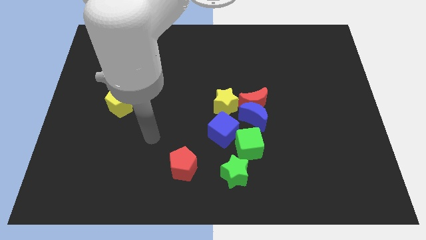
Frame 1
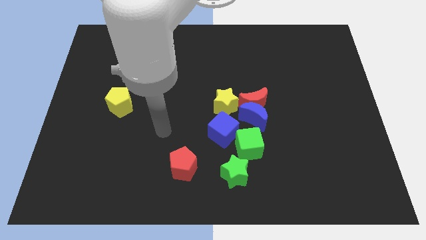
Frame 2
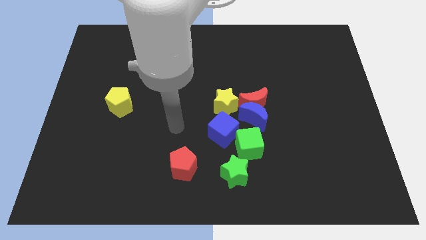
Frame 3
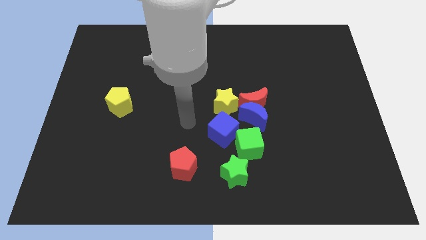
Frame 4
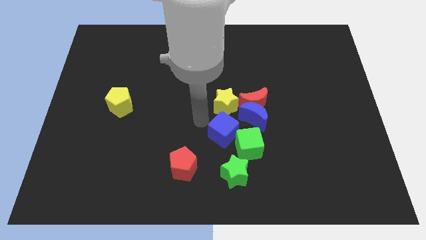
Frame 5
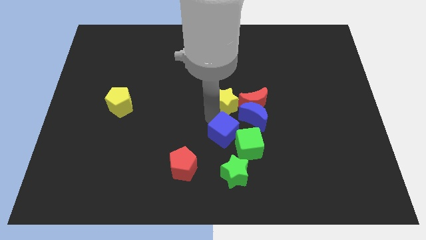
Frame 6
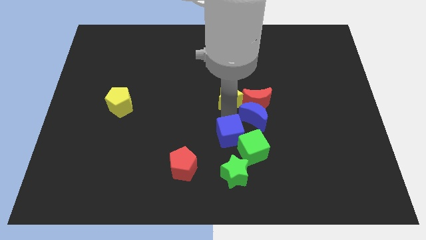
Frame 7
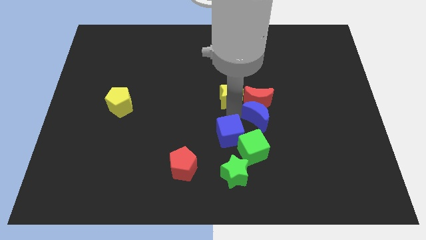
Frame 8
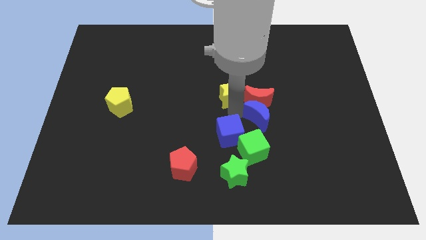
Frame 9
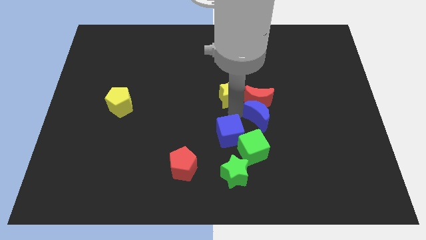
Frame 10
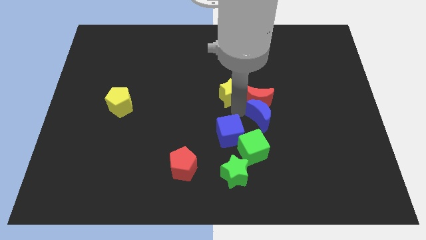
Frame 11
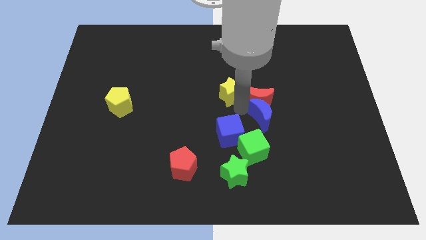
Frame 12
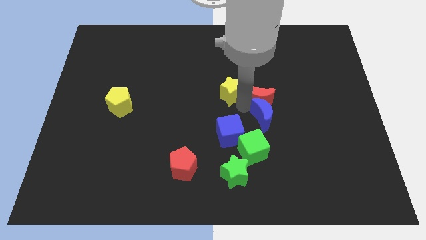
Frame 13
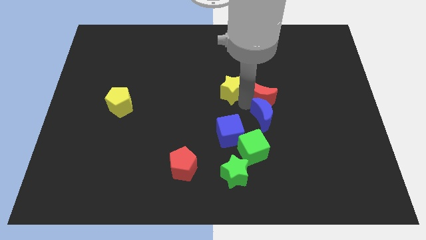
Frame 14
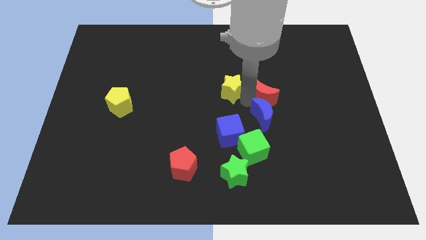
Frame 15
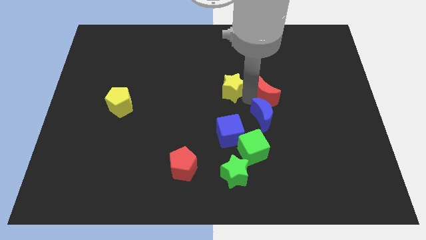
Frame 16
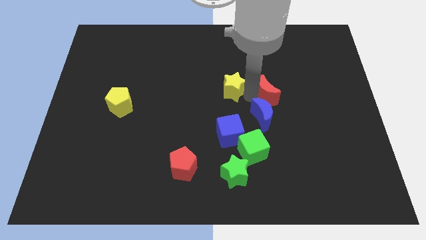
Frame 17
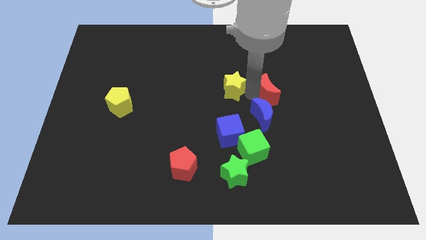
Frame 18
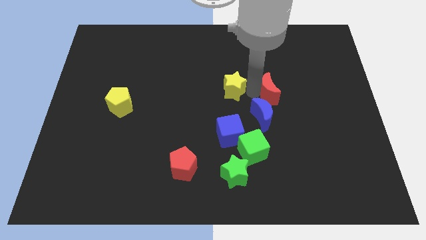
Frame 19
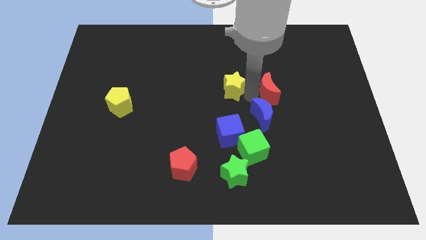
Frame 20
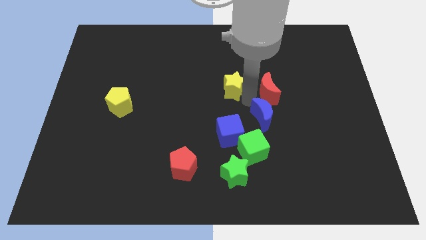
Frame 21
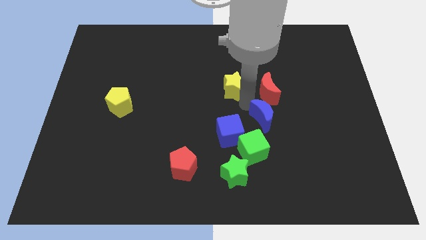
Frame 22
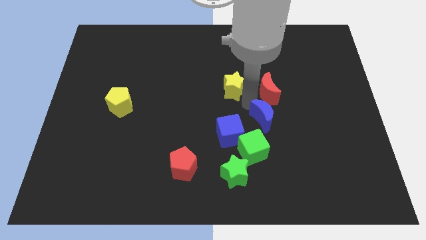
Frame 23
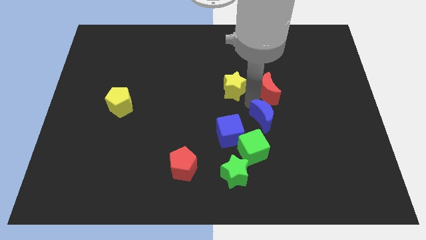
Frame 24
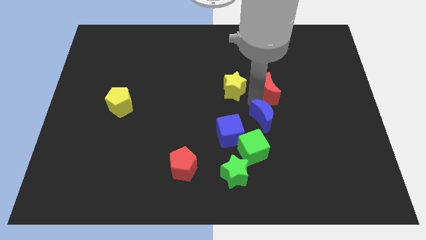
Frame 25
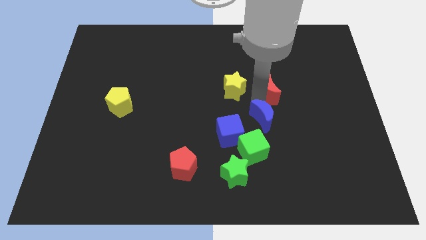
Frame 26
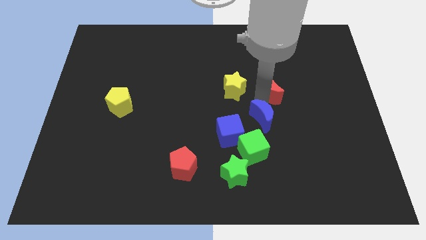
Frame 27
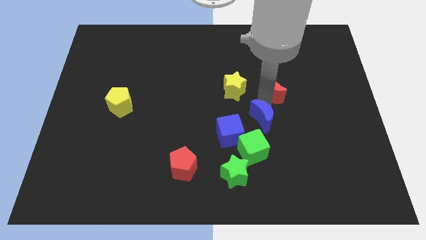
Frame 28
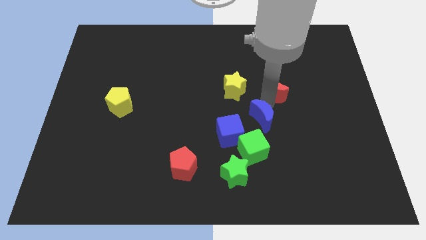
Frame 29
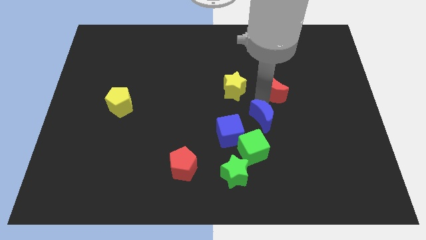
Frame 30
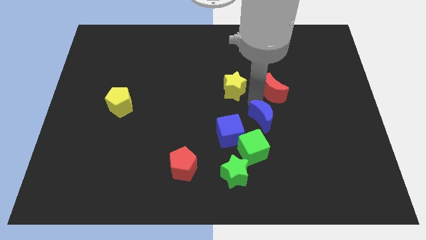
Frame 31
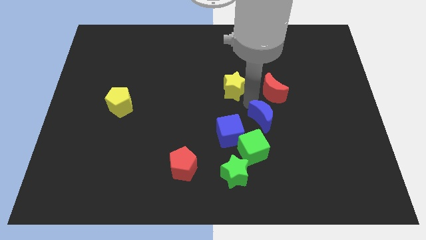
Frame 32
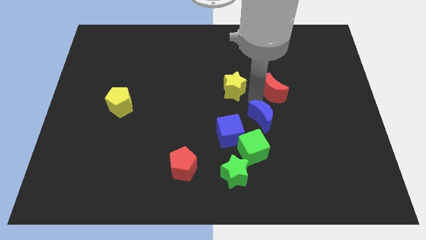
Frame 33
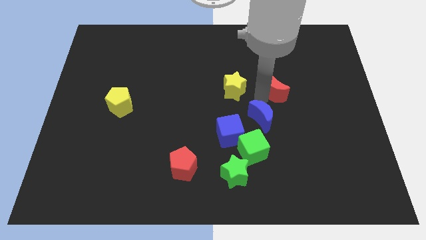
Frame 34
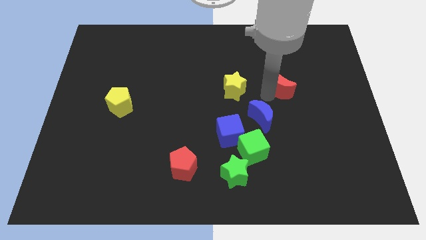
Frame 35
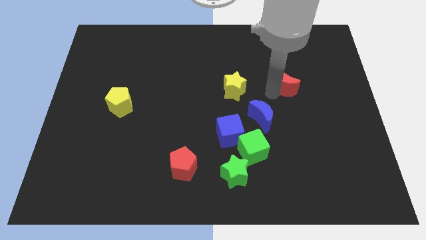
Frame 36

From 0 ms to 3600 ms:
separate the red moon from the blue moon and yellow star

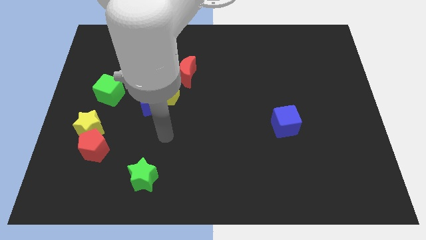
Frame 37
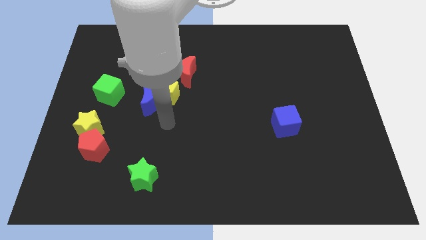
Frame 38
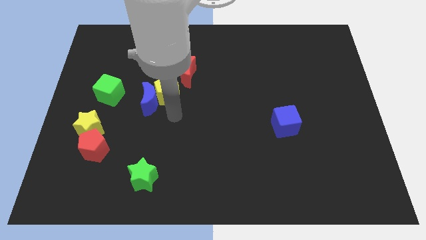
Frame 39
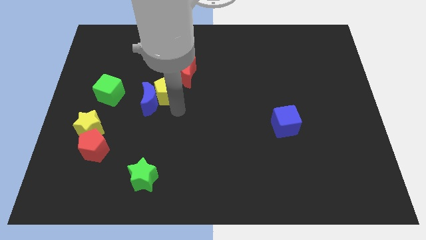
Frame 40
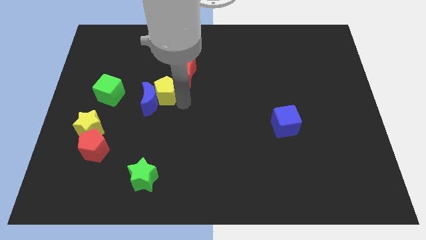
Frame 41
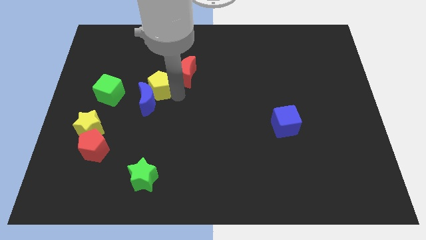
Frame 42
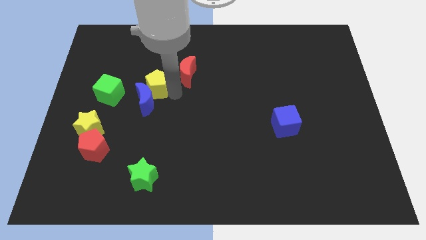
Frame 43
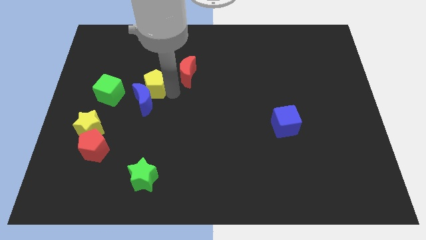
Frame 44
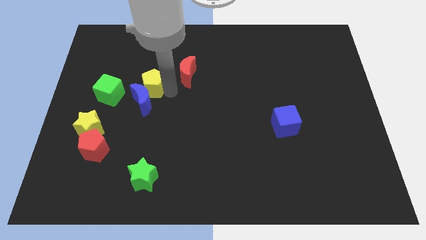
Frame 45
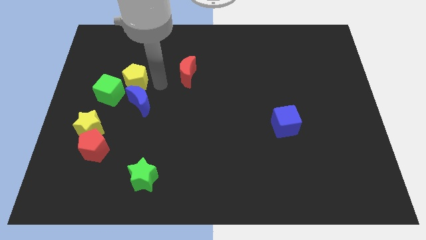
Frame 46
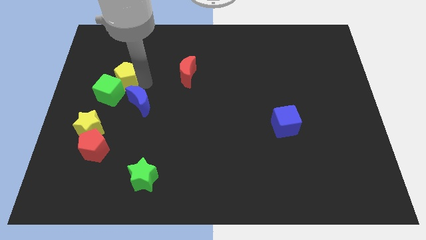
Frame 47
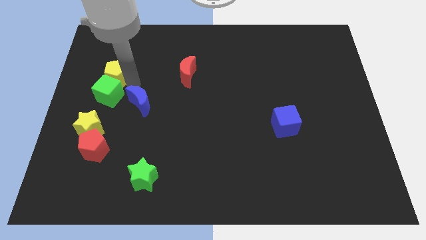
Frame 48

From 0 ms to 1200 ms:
move the blue moon away from the yellow pentagon

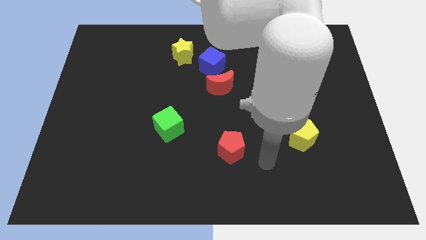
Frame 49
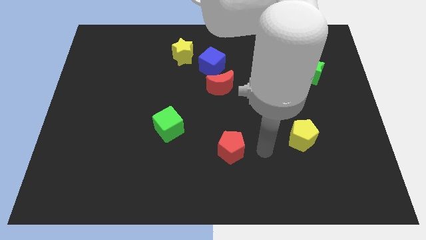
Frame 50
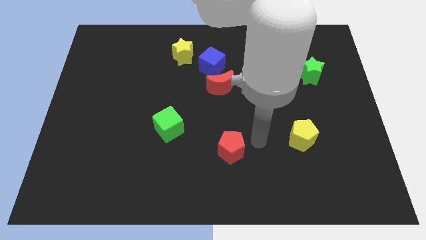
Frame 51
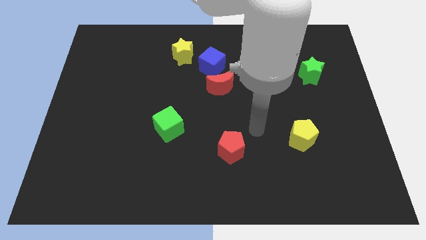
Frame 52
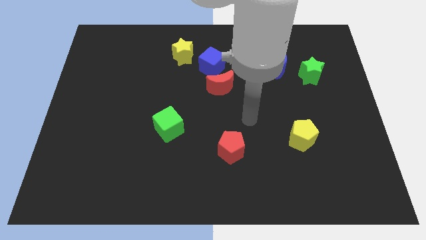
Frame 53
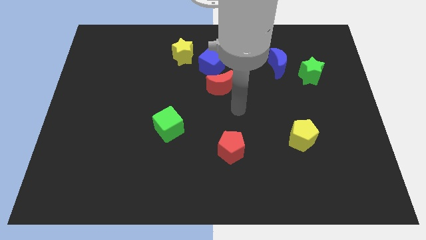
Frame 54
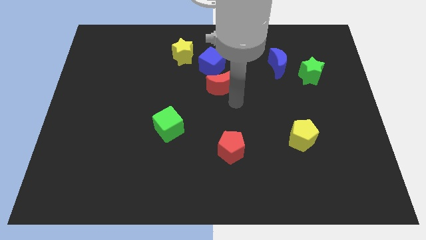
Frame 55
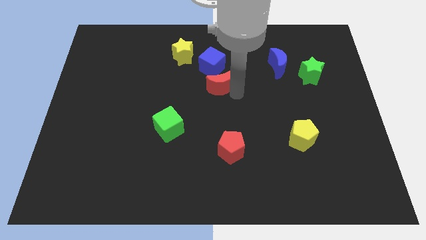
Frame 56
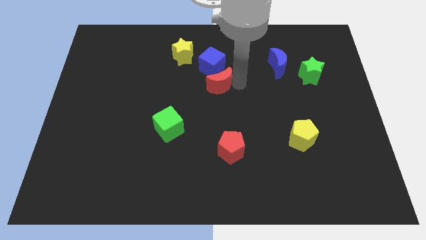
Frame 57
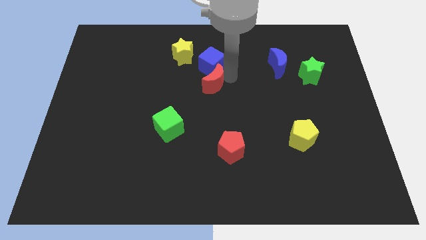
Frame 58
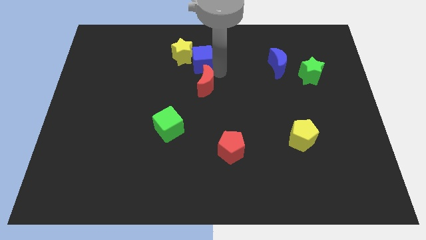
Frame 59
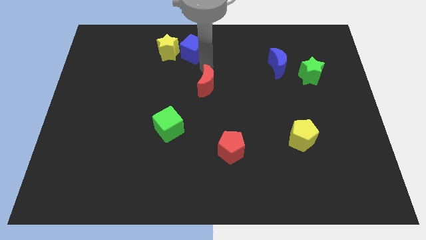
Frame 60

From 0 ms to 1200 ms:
move the red moon away from the blue cube

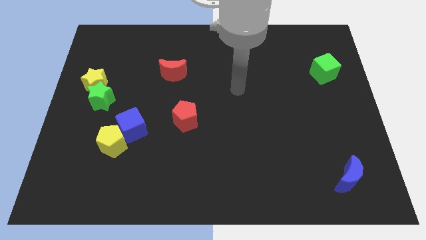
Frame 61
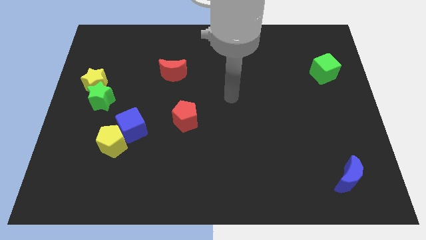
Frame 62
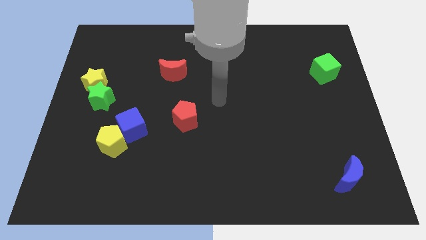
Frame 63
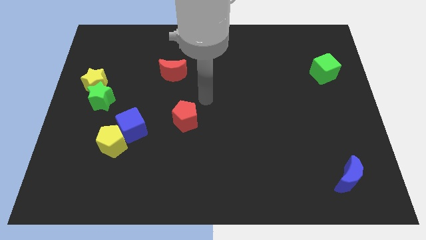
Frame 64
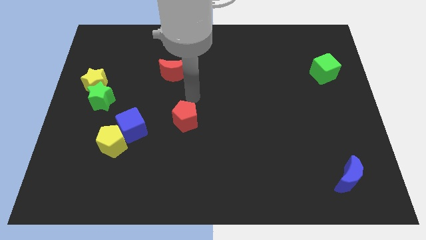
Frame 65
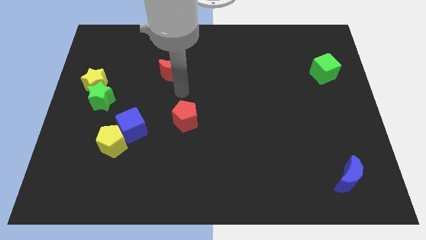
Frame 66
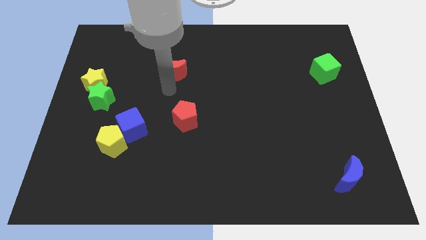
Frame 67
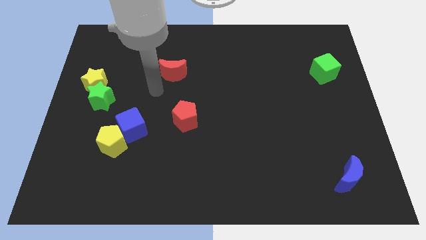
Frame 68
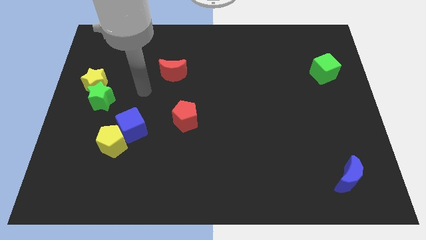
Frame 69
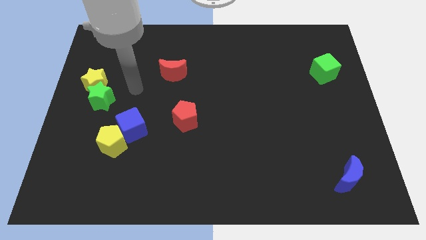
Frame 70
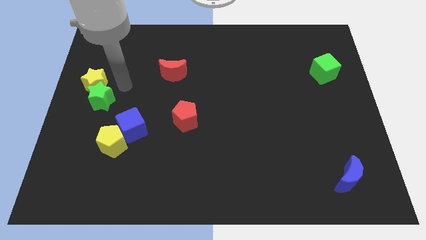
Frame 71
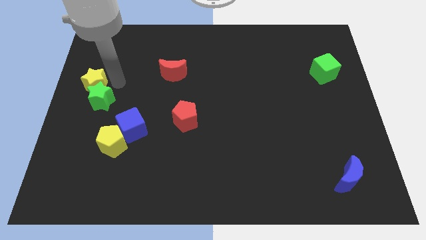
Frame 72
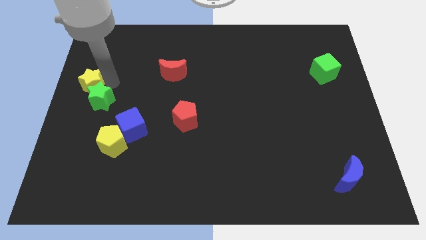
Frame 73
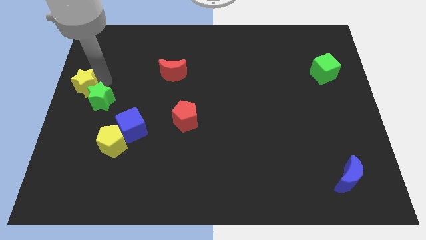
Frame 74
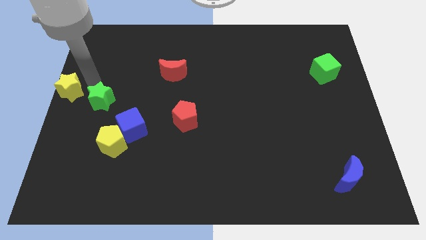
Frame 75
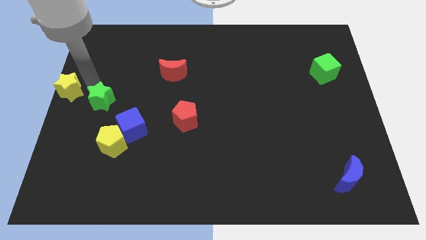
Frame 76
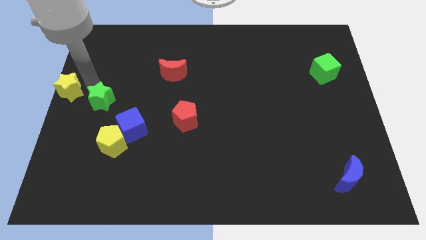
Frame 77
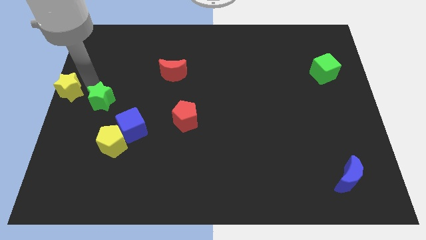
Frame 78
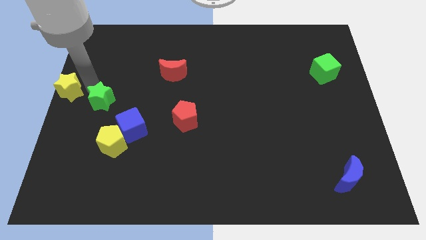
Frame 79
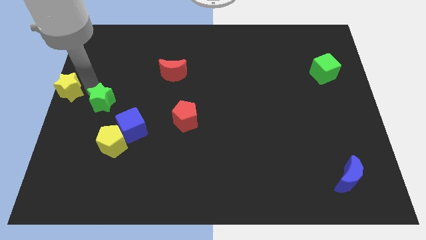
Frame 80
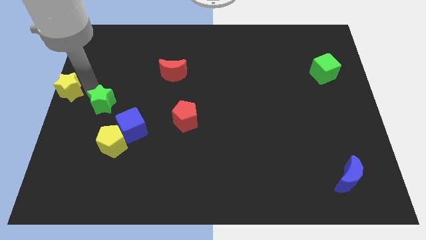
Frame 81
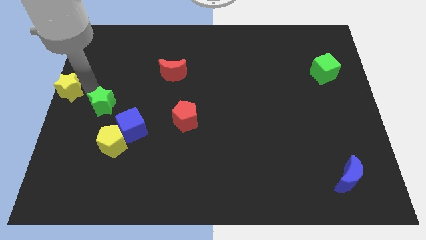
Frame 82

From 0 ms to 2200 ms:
move the green star away from the yellow star

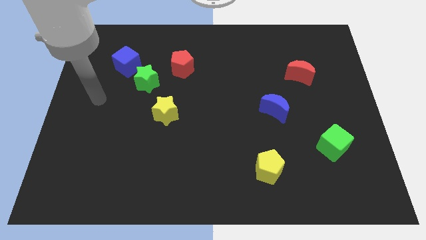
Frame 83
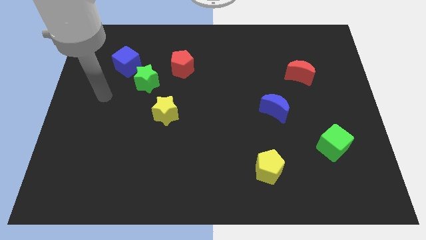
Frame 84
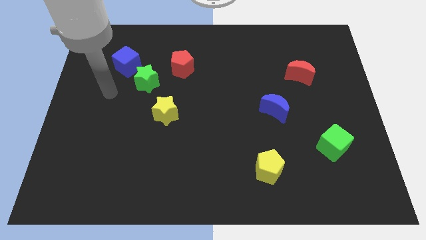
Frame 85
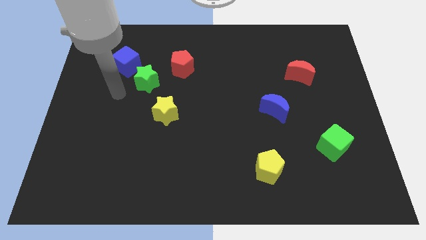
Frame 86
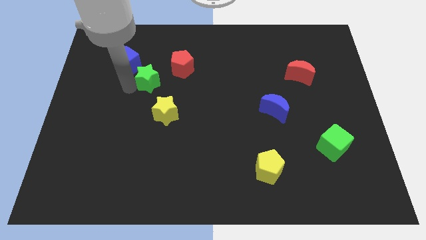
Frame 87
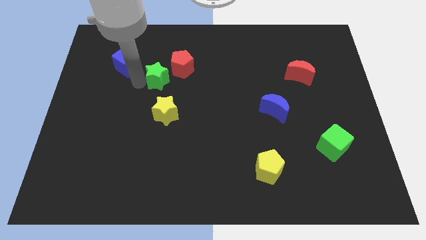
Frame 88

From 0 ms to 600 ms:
separate the blue cube from the green star

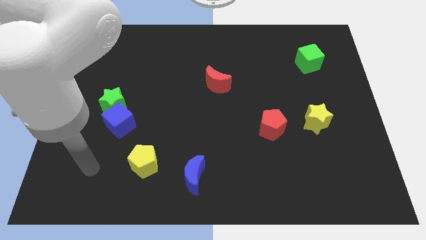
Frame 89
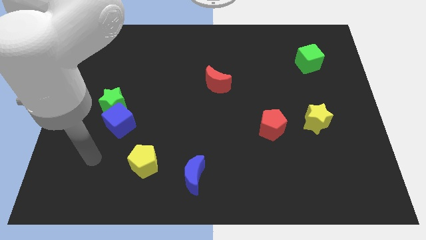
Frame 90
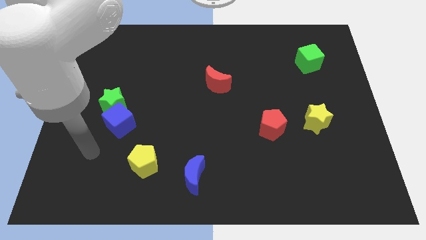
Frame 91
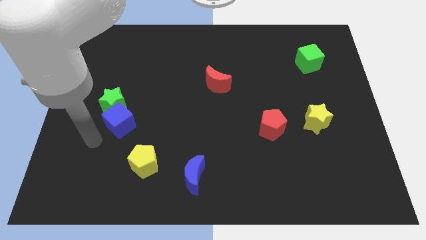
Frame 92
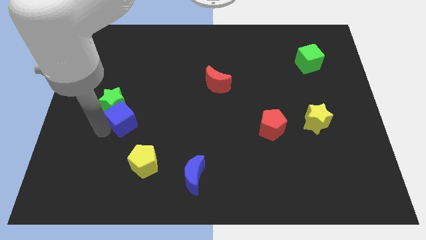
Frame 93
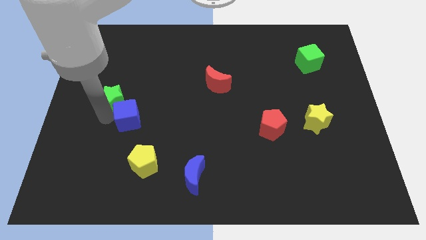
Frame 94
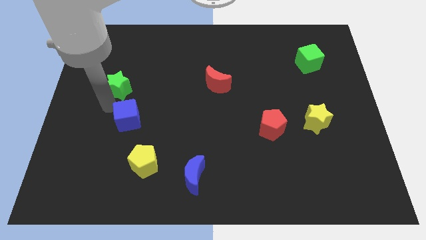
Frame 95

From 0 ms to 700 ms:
move the blue cube away from the green star
